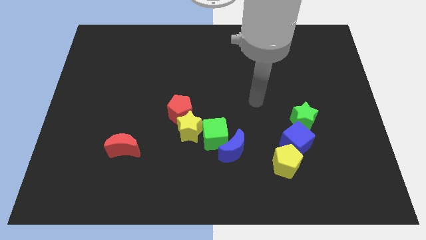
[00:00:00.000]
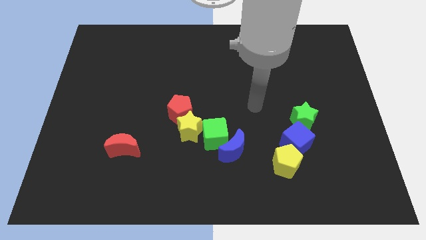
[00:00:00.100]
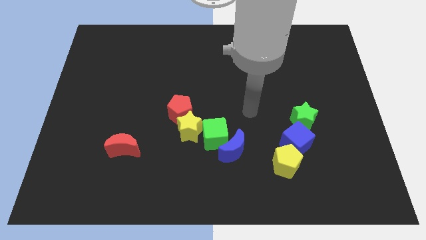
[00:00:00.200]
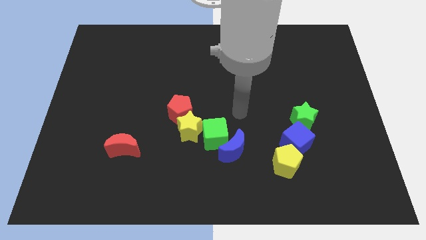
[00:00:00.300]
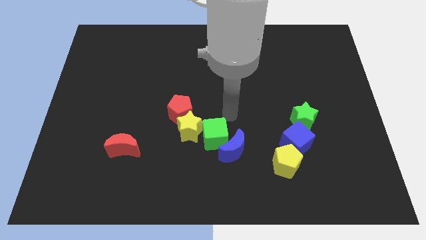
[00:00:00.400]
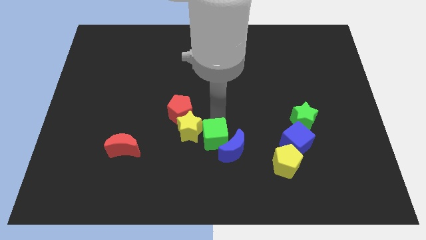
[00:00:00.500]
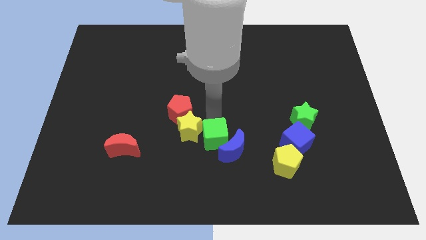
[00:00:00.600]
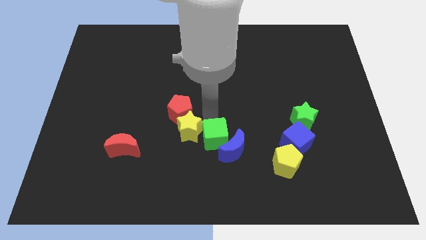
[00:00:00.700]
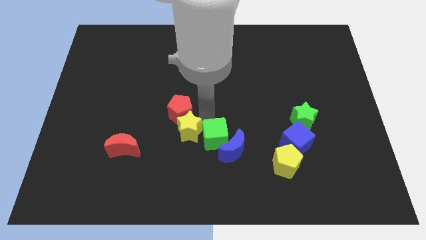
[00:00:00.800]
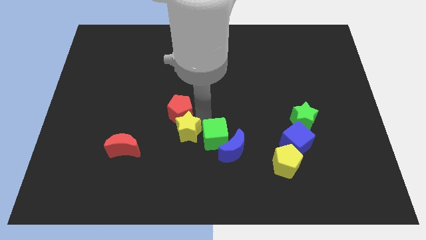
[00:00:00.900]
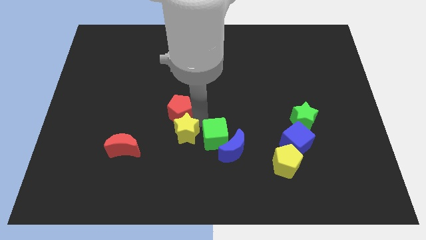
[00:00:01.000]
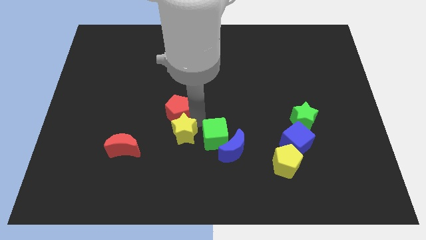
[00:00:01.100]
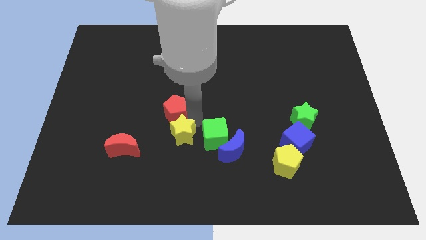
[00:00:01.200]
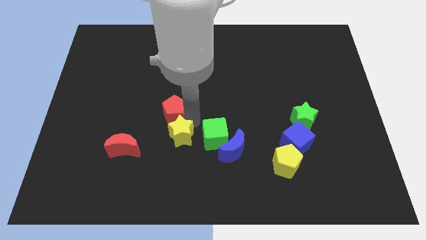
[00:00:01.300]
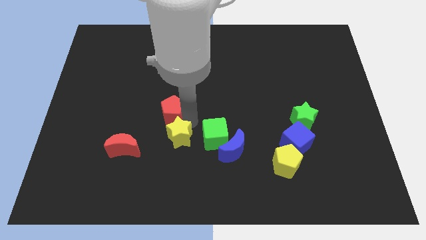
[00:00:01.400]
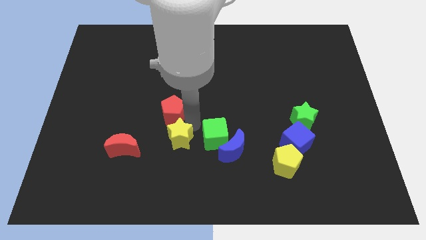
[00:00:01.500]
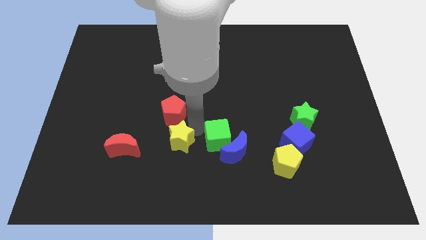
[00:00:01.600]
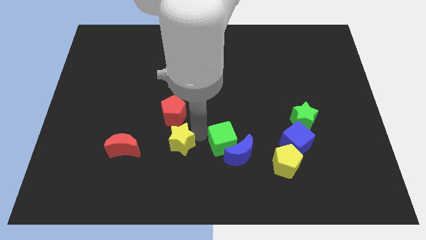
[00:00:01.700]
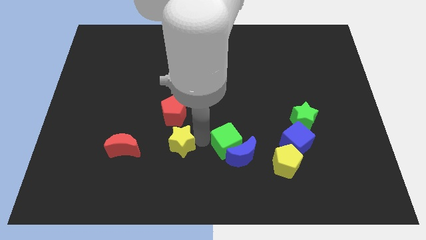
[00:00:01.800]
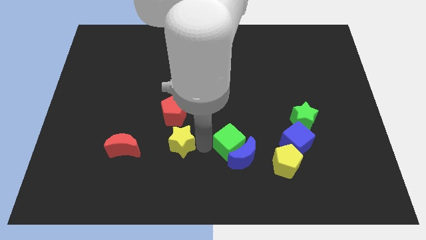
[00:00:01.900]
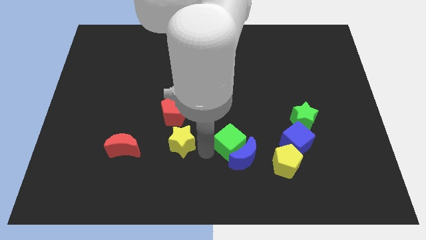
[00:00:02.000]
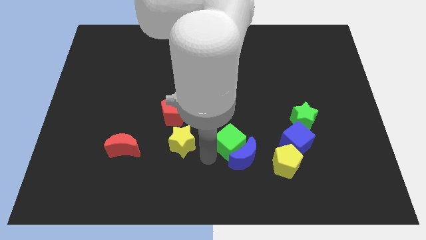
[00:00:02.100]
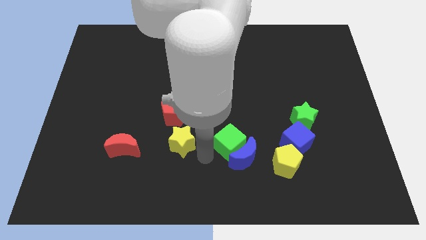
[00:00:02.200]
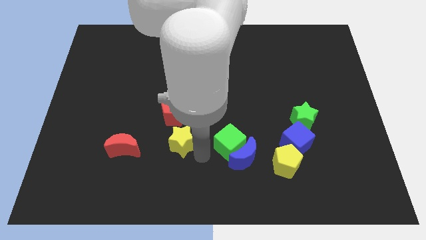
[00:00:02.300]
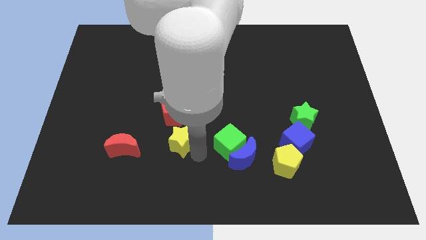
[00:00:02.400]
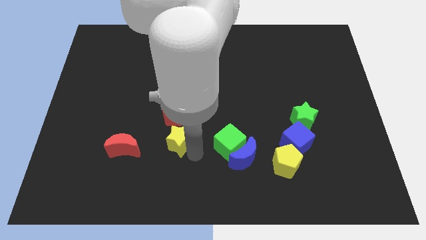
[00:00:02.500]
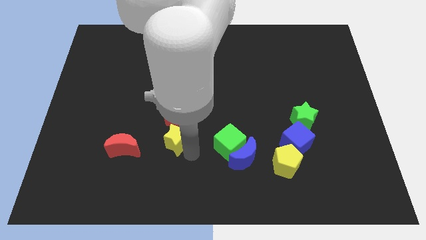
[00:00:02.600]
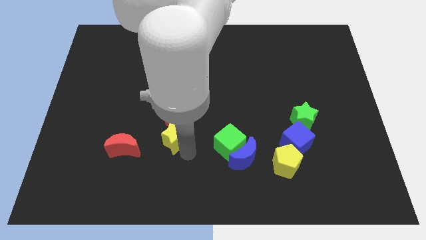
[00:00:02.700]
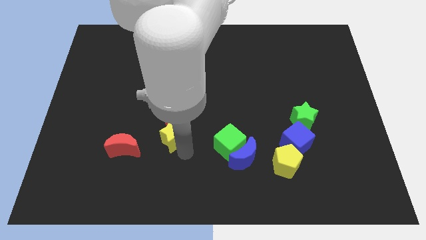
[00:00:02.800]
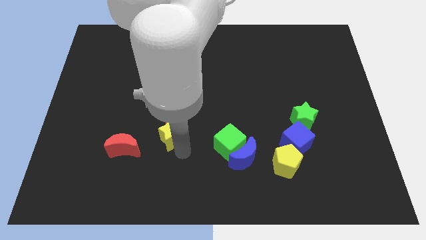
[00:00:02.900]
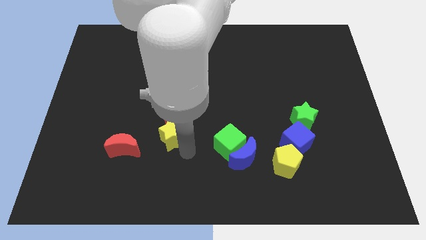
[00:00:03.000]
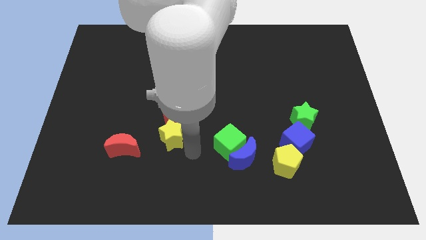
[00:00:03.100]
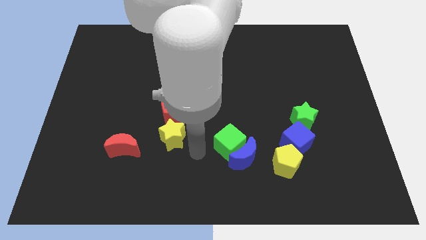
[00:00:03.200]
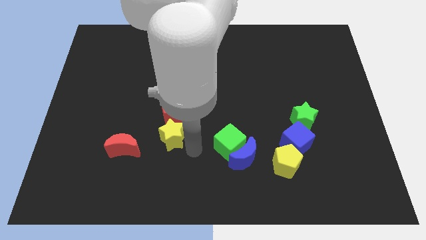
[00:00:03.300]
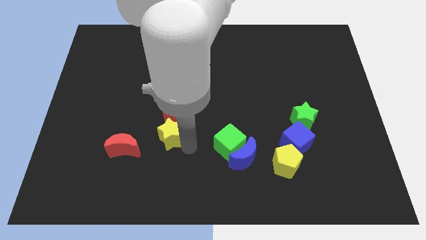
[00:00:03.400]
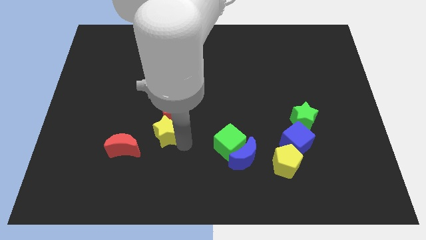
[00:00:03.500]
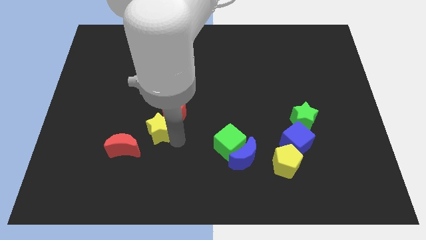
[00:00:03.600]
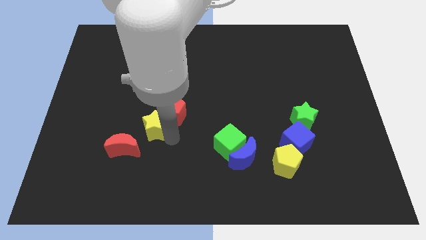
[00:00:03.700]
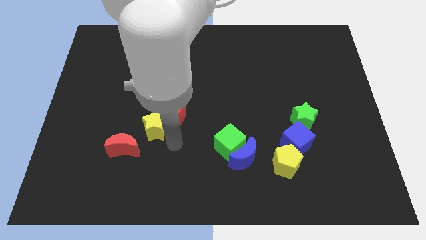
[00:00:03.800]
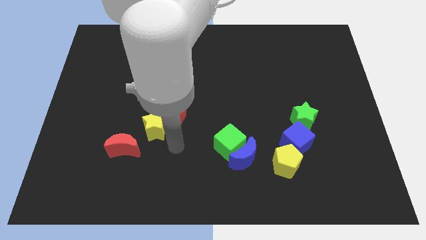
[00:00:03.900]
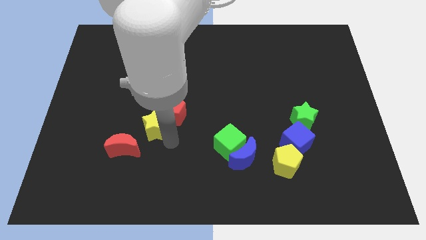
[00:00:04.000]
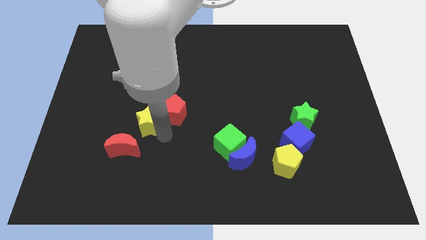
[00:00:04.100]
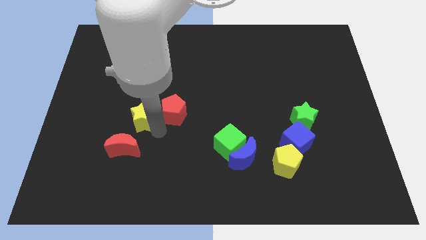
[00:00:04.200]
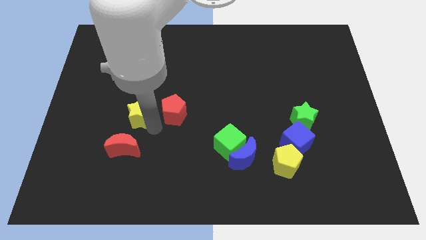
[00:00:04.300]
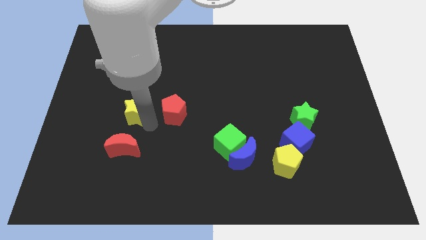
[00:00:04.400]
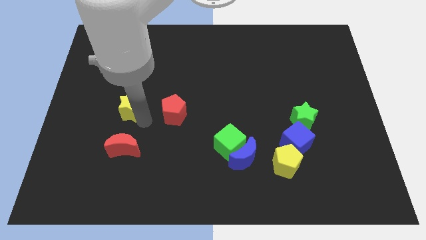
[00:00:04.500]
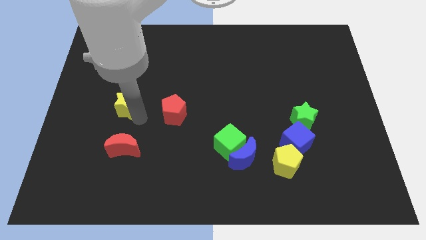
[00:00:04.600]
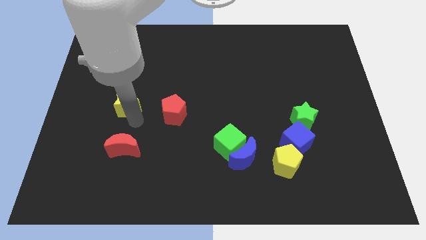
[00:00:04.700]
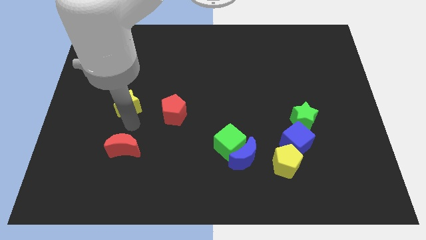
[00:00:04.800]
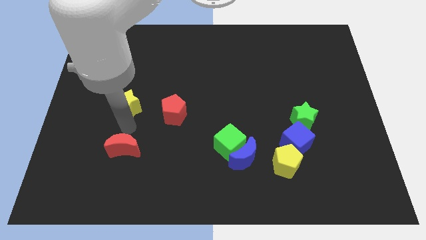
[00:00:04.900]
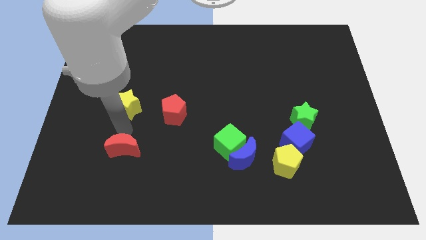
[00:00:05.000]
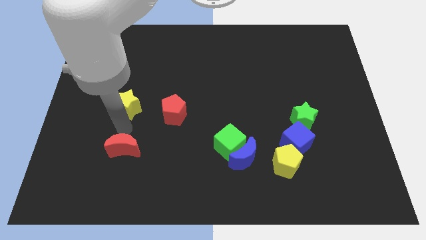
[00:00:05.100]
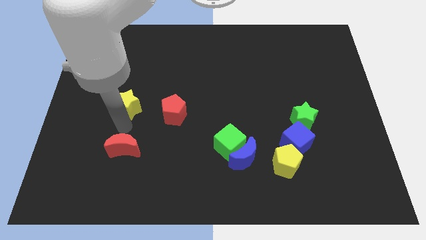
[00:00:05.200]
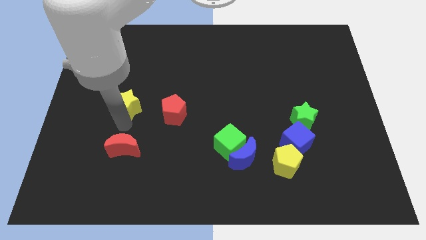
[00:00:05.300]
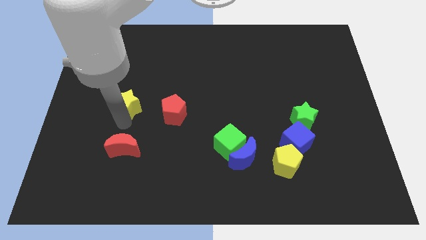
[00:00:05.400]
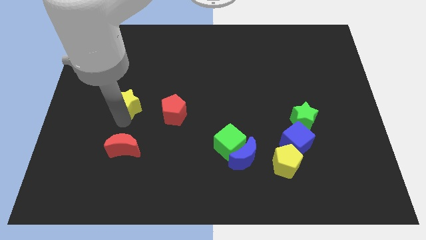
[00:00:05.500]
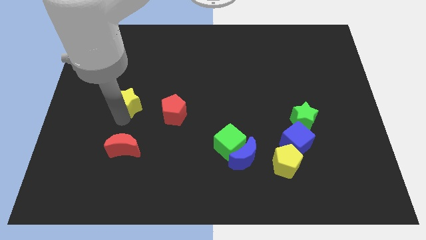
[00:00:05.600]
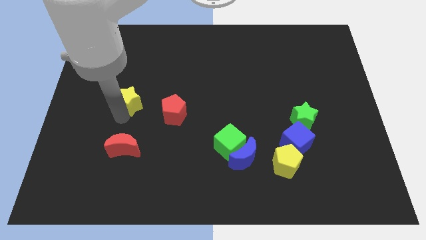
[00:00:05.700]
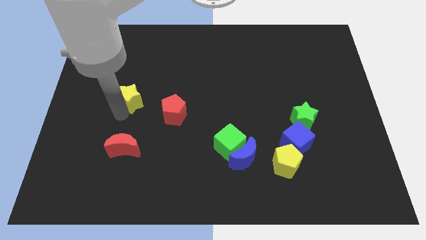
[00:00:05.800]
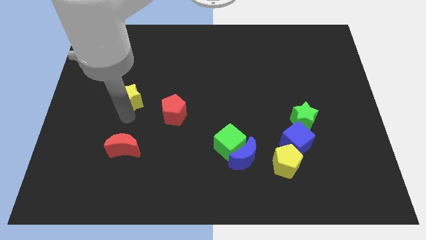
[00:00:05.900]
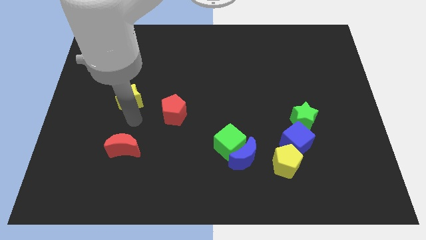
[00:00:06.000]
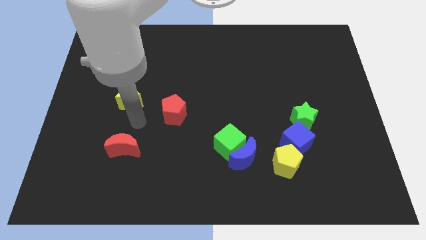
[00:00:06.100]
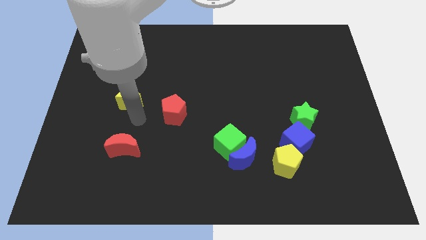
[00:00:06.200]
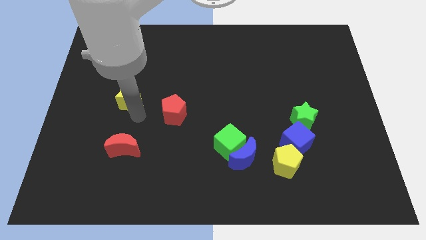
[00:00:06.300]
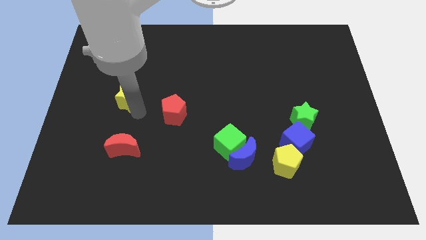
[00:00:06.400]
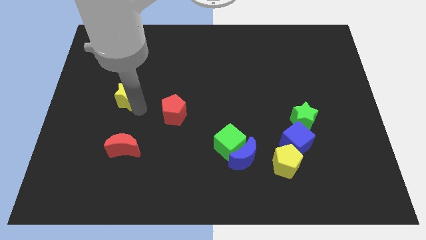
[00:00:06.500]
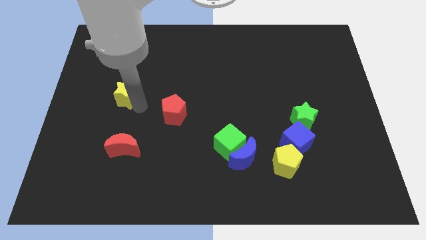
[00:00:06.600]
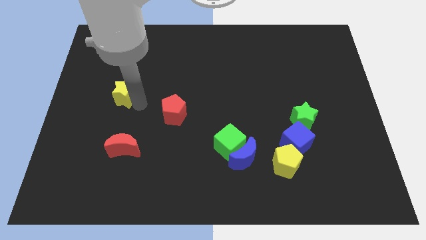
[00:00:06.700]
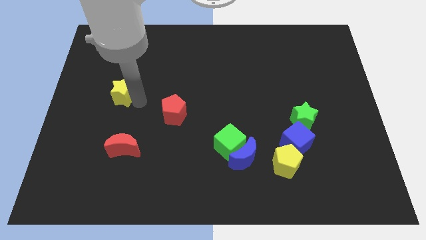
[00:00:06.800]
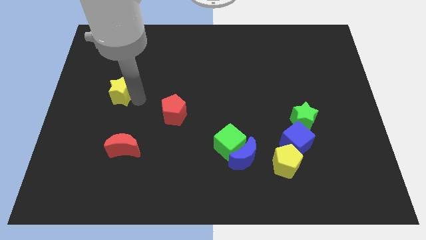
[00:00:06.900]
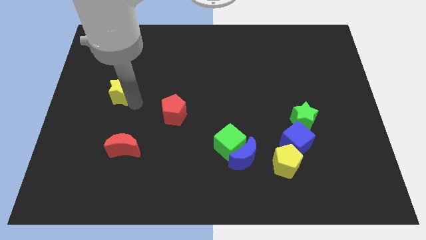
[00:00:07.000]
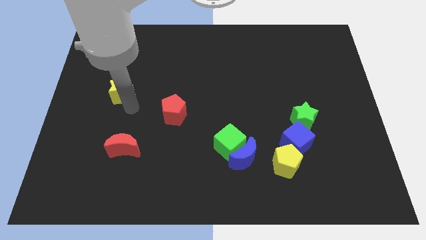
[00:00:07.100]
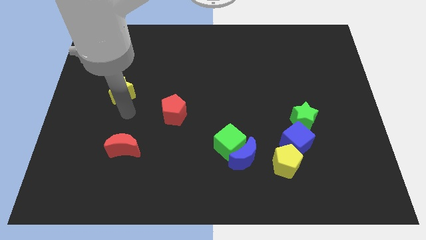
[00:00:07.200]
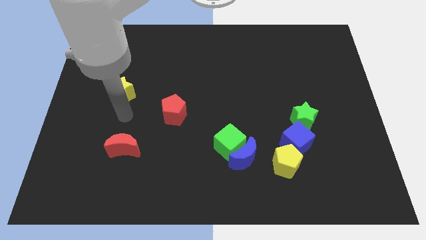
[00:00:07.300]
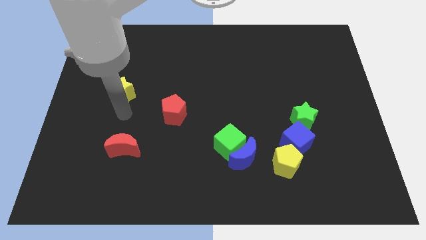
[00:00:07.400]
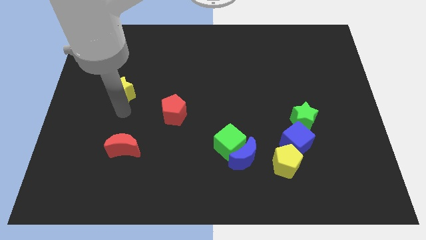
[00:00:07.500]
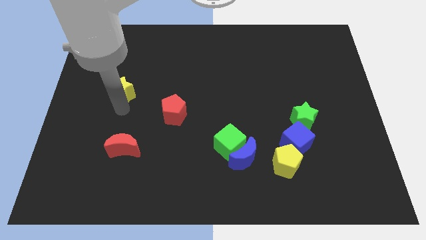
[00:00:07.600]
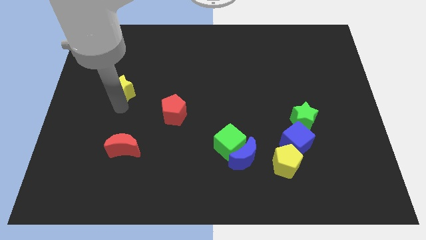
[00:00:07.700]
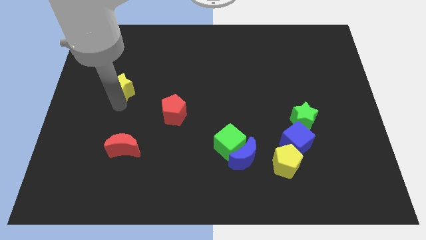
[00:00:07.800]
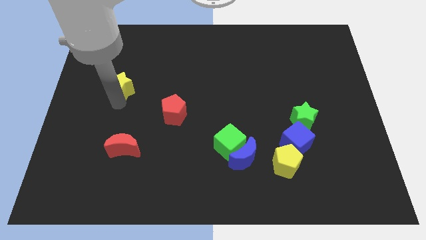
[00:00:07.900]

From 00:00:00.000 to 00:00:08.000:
move the yellow star diagonally upwards and to the left
